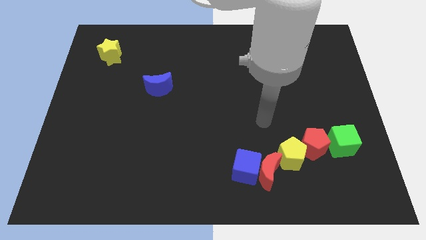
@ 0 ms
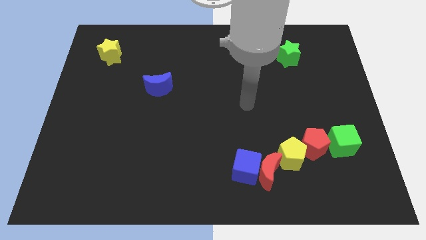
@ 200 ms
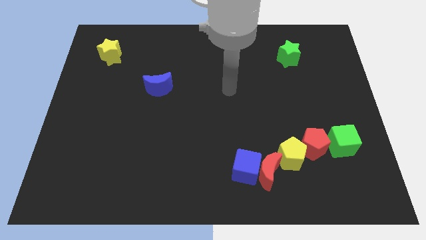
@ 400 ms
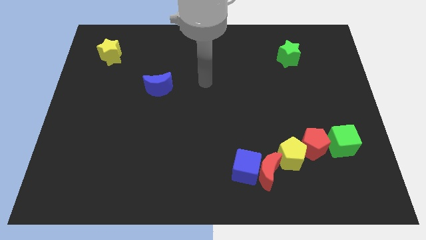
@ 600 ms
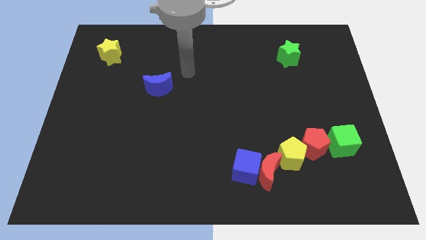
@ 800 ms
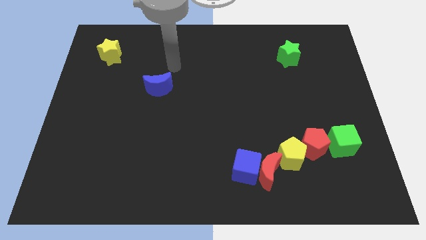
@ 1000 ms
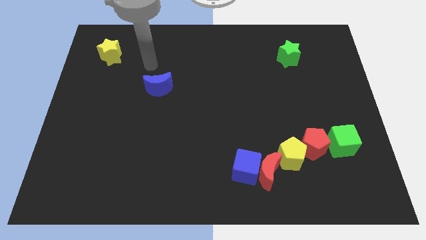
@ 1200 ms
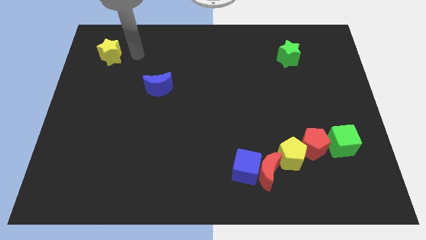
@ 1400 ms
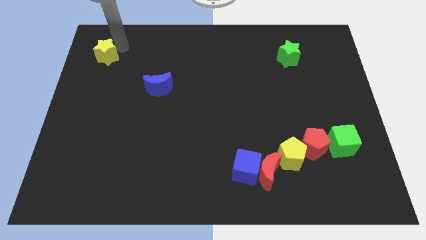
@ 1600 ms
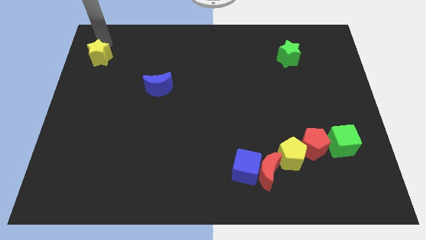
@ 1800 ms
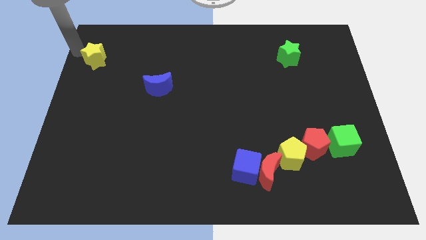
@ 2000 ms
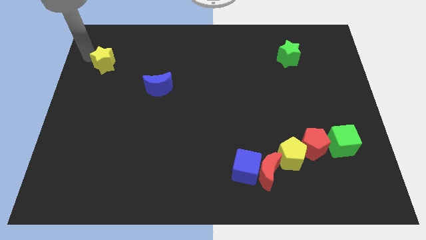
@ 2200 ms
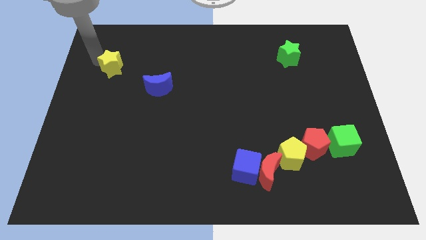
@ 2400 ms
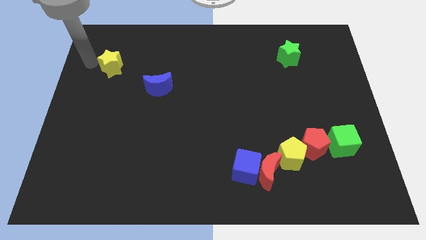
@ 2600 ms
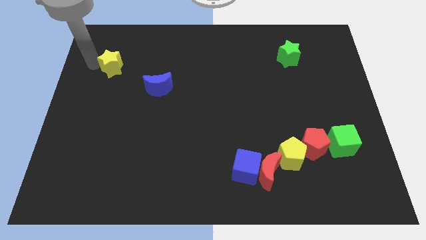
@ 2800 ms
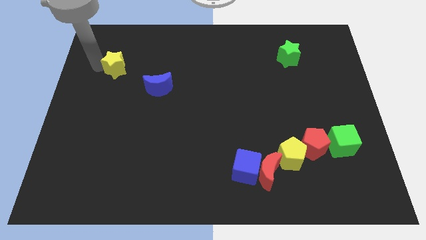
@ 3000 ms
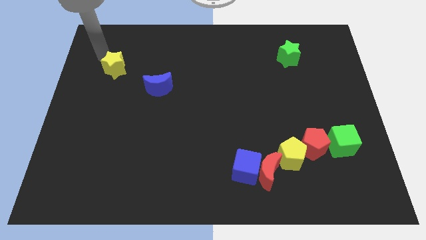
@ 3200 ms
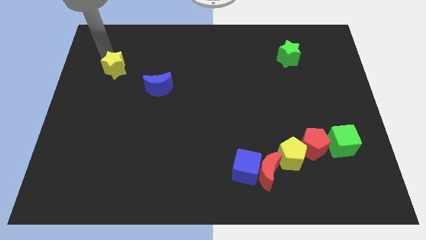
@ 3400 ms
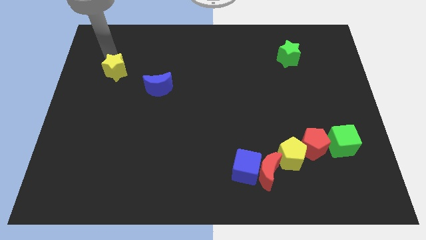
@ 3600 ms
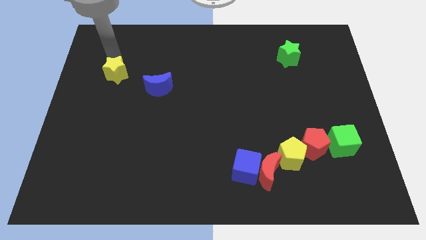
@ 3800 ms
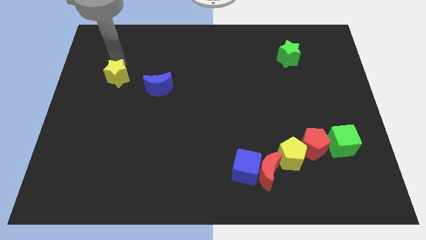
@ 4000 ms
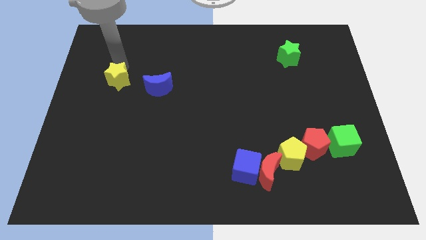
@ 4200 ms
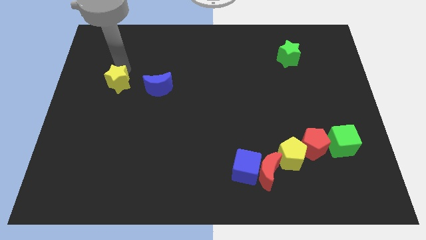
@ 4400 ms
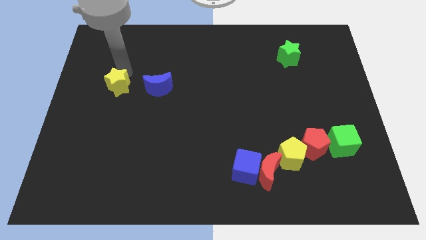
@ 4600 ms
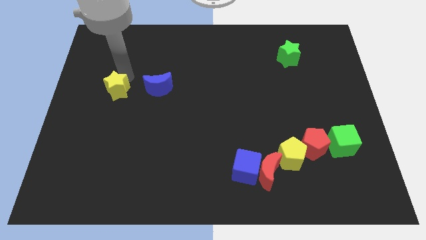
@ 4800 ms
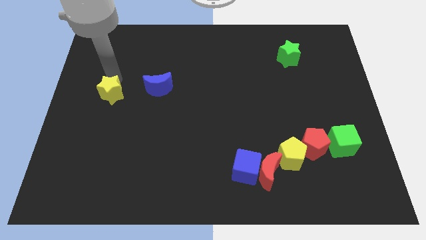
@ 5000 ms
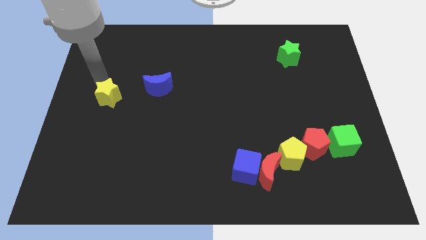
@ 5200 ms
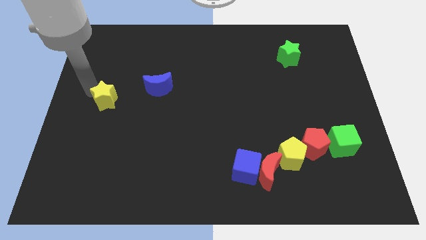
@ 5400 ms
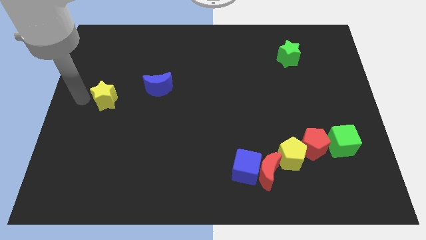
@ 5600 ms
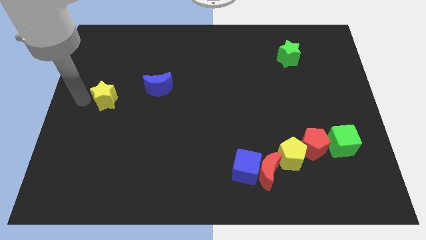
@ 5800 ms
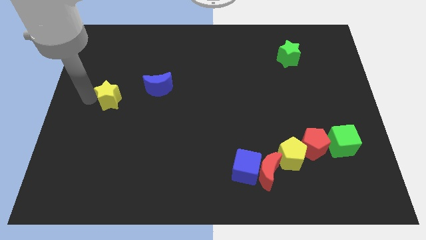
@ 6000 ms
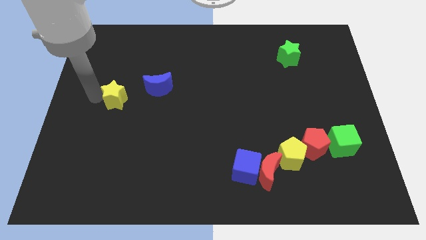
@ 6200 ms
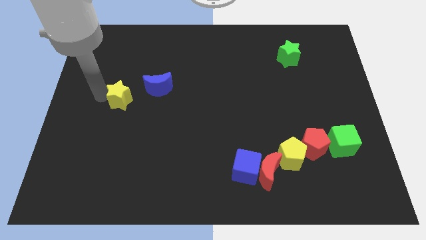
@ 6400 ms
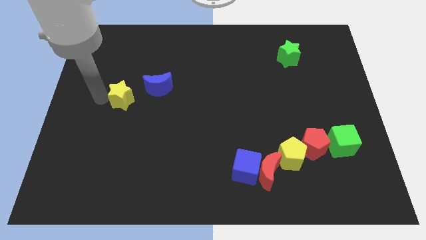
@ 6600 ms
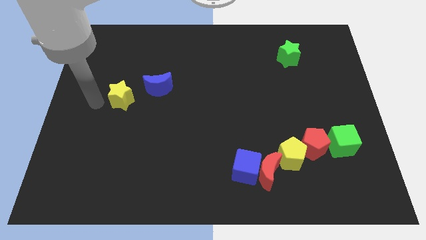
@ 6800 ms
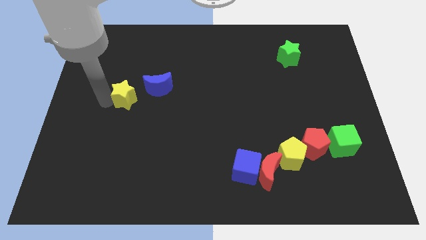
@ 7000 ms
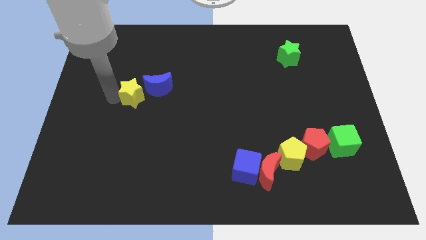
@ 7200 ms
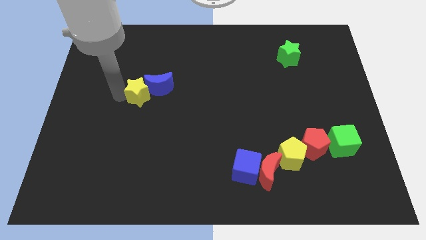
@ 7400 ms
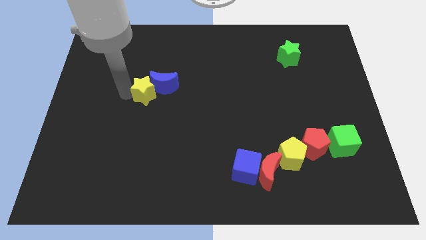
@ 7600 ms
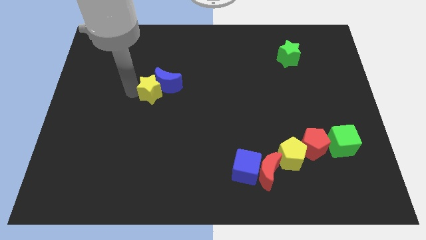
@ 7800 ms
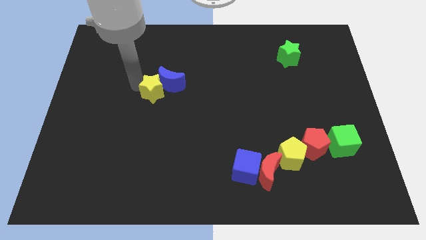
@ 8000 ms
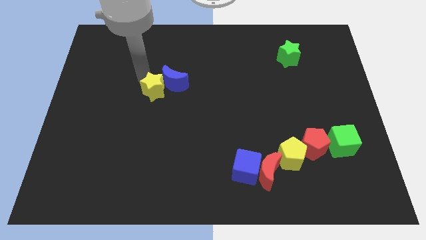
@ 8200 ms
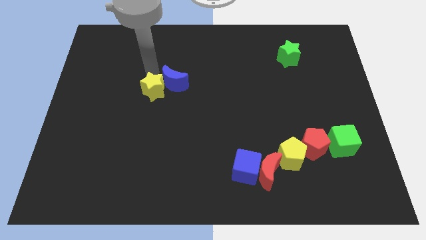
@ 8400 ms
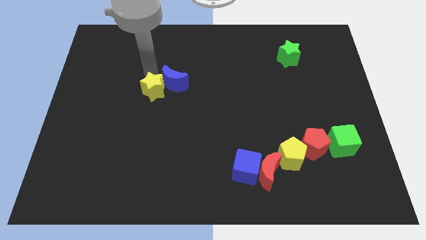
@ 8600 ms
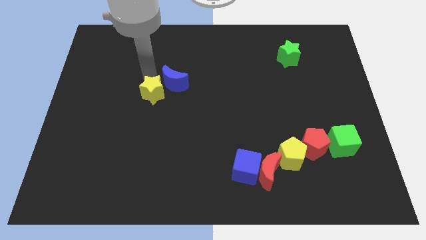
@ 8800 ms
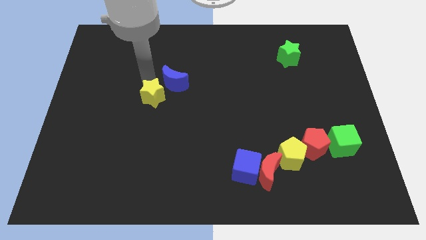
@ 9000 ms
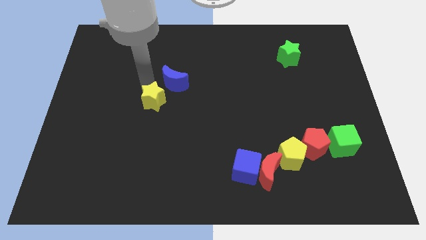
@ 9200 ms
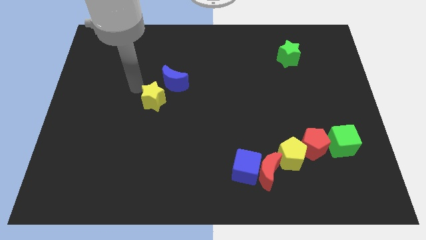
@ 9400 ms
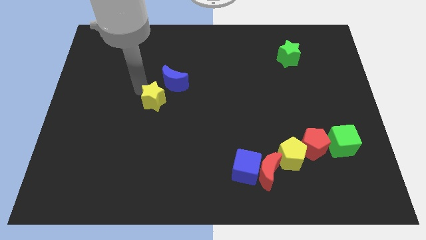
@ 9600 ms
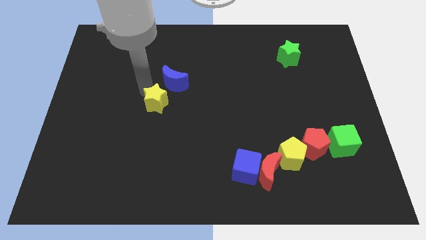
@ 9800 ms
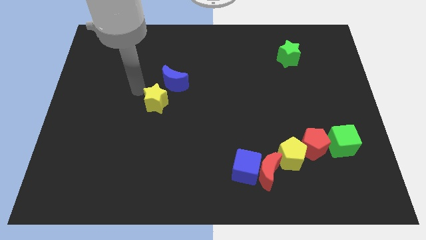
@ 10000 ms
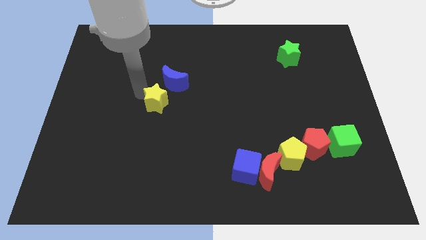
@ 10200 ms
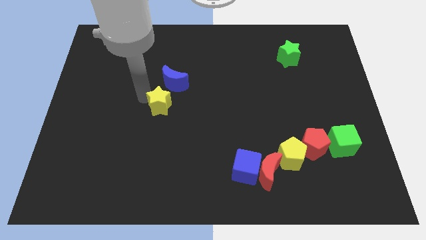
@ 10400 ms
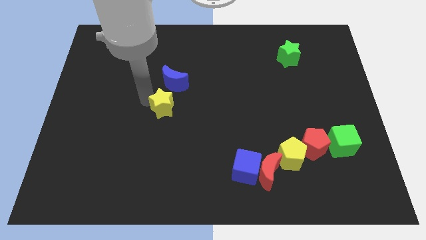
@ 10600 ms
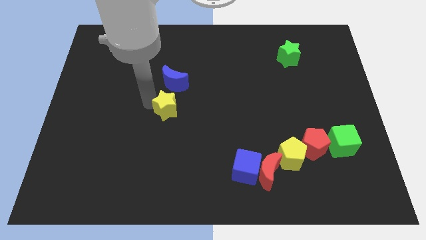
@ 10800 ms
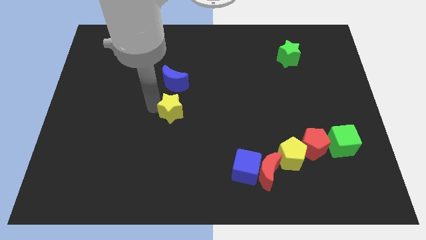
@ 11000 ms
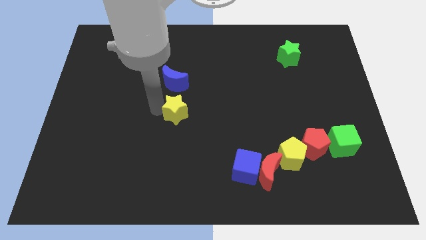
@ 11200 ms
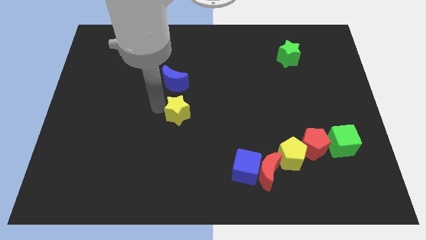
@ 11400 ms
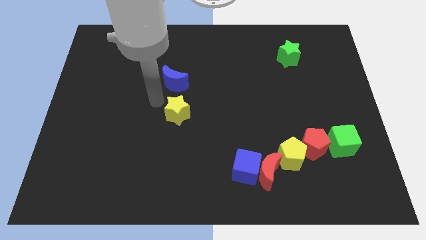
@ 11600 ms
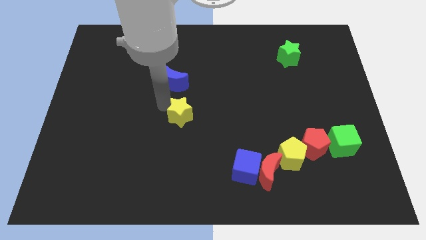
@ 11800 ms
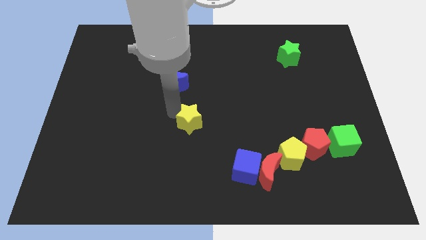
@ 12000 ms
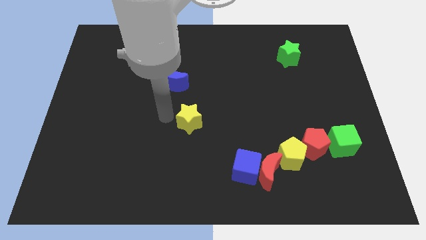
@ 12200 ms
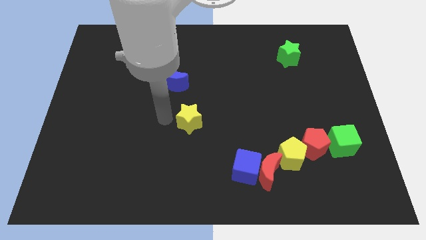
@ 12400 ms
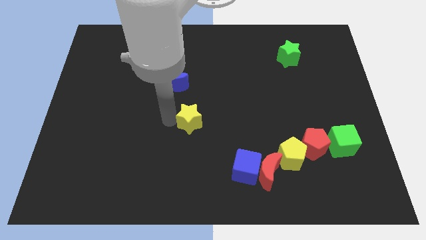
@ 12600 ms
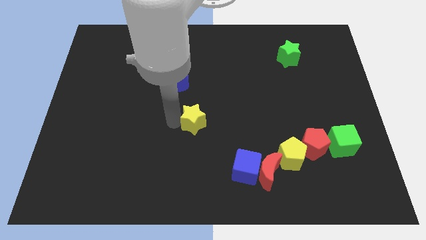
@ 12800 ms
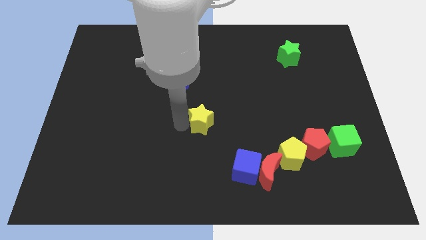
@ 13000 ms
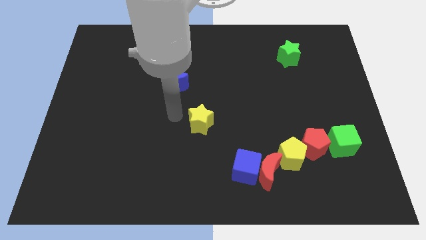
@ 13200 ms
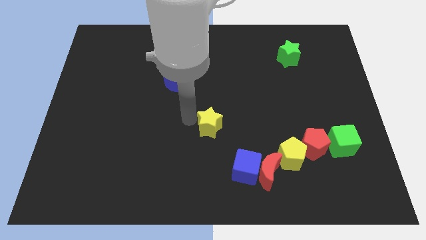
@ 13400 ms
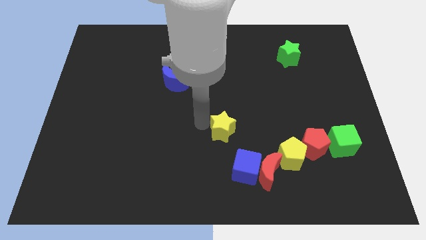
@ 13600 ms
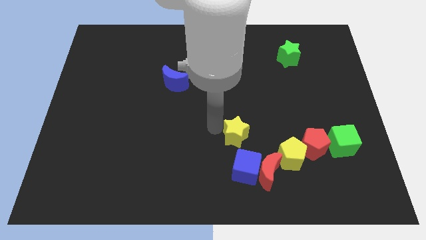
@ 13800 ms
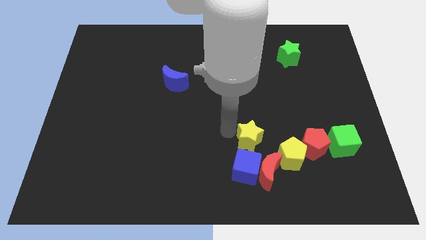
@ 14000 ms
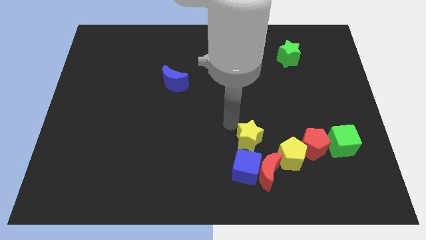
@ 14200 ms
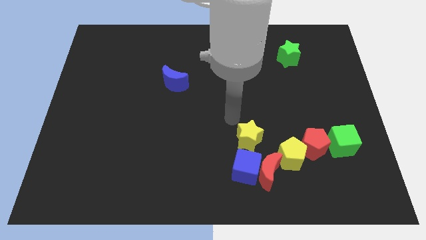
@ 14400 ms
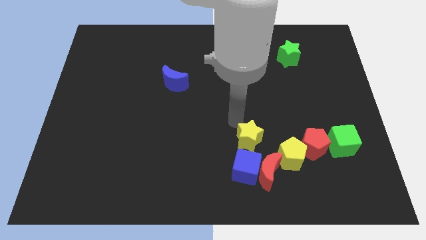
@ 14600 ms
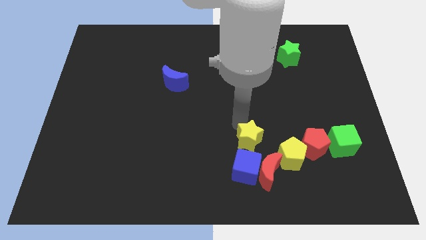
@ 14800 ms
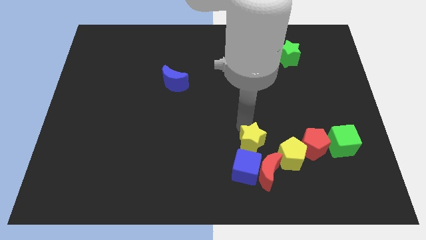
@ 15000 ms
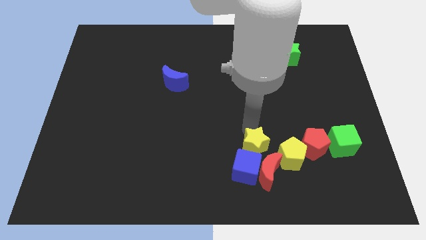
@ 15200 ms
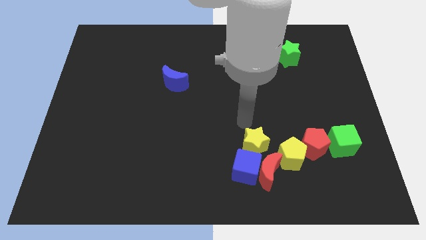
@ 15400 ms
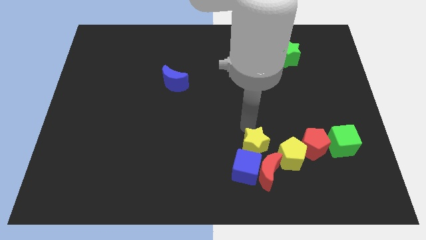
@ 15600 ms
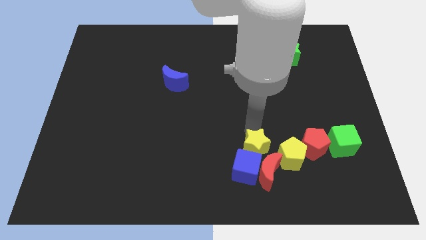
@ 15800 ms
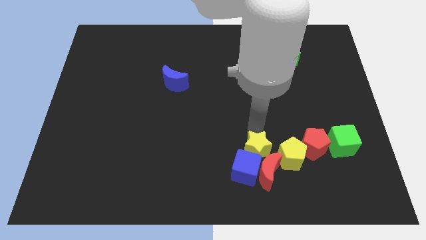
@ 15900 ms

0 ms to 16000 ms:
push the yellow star towards the red moon
